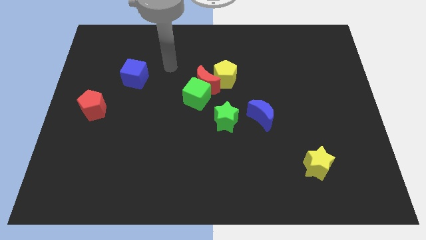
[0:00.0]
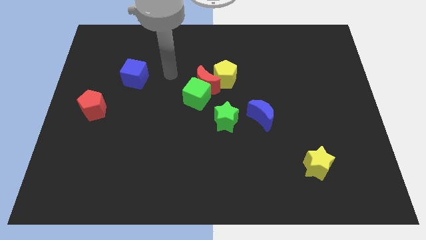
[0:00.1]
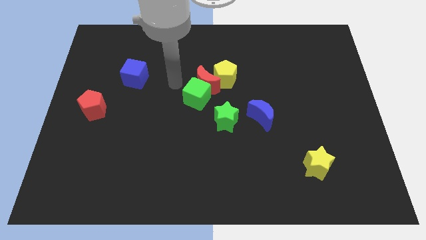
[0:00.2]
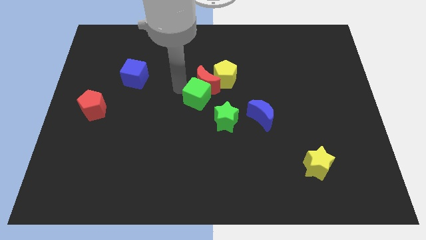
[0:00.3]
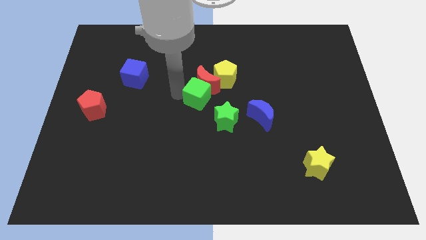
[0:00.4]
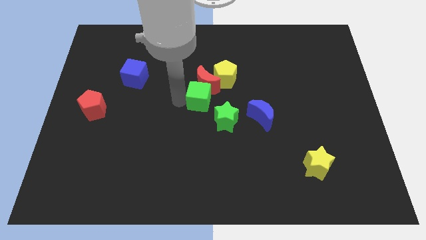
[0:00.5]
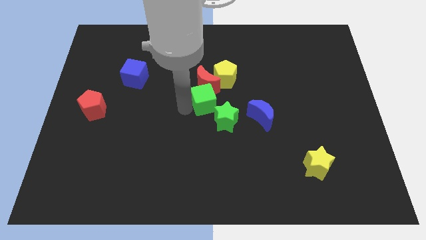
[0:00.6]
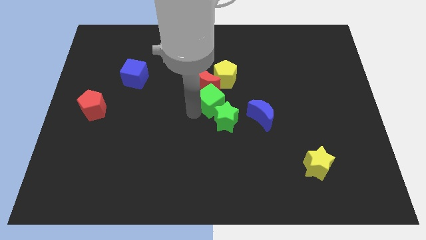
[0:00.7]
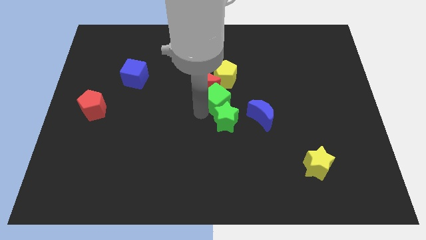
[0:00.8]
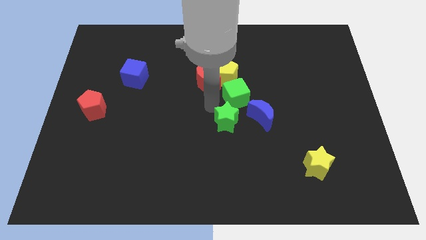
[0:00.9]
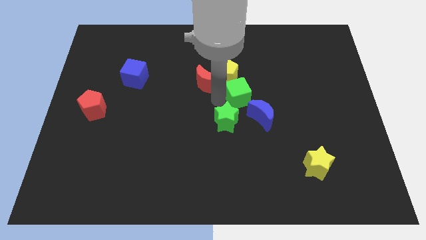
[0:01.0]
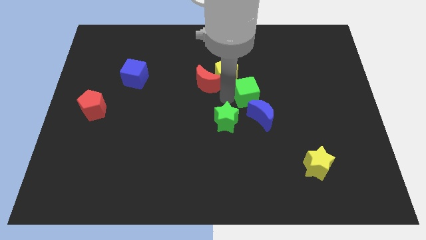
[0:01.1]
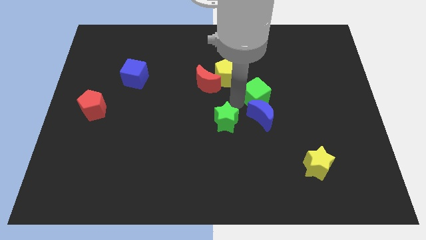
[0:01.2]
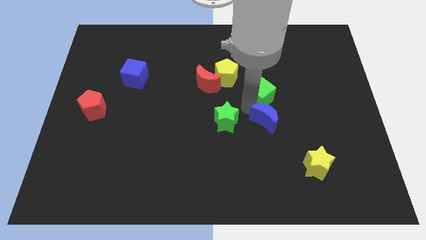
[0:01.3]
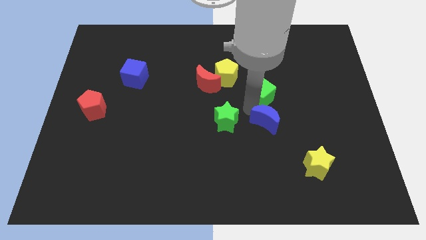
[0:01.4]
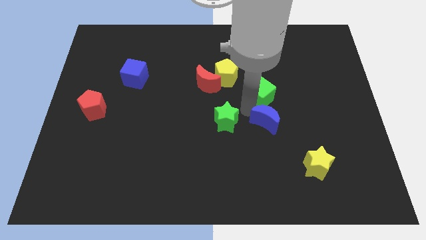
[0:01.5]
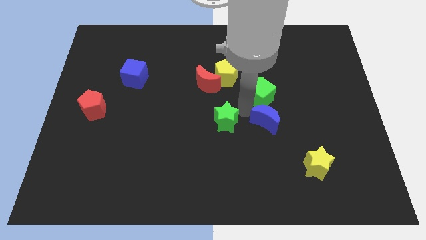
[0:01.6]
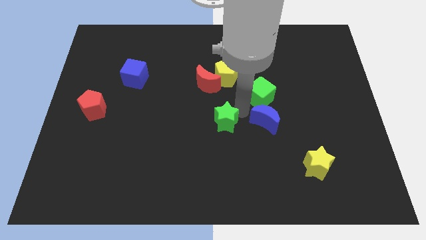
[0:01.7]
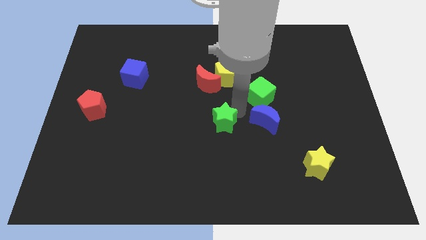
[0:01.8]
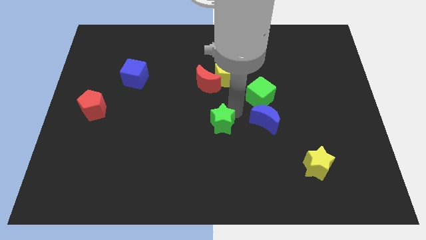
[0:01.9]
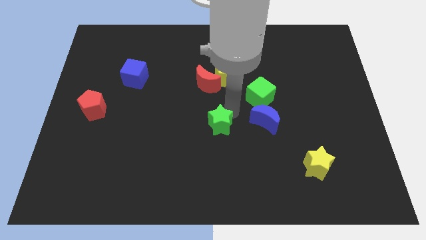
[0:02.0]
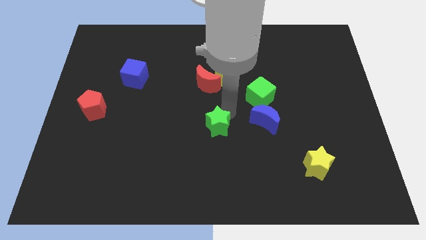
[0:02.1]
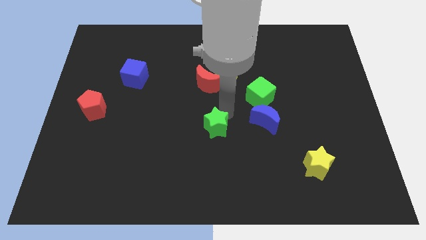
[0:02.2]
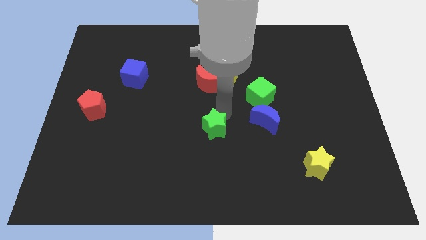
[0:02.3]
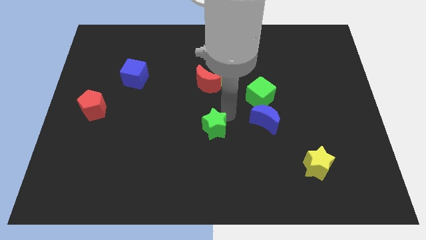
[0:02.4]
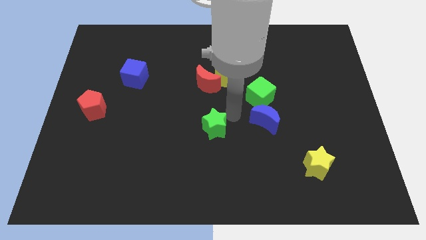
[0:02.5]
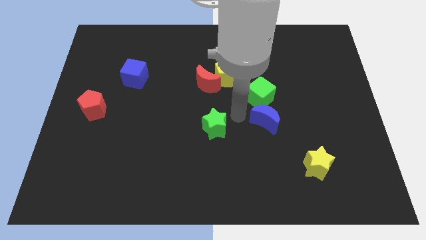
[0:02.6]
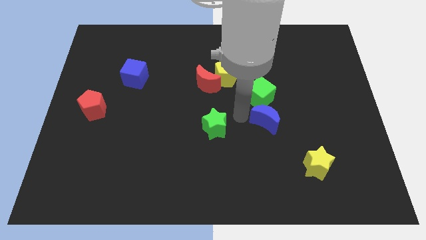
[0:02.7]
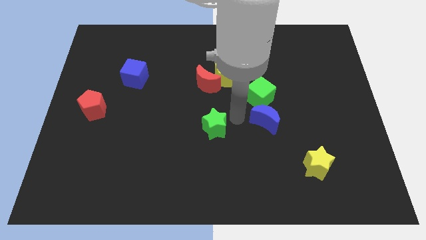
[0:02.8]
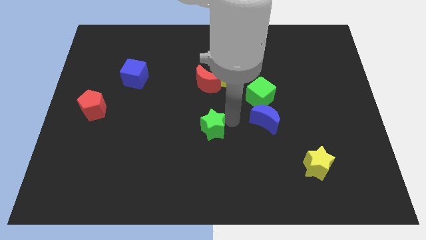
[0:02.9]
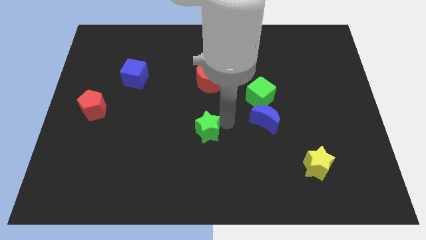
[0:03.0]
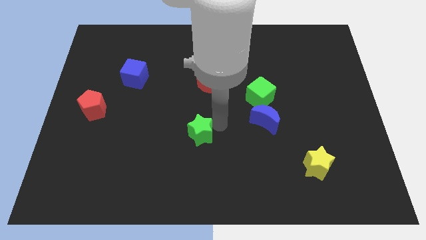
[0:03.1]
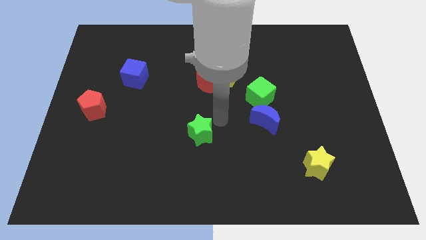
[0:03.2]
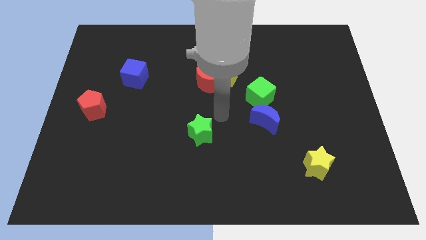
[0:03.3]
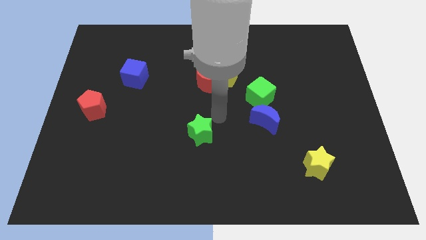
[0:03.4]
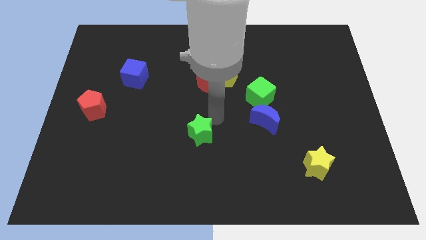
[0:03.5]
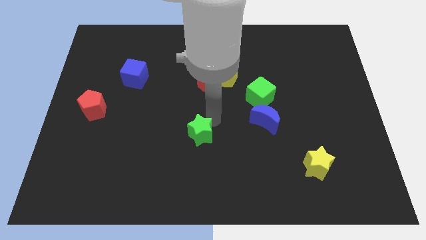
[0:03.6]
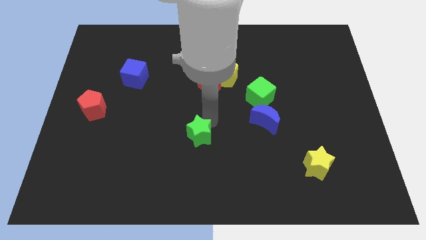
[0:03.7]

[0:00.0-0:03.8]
slightly slide the green star diagonally down and to the left

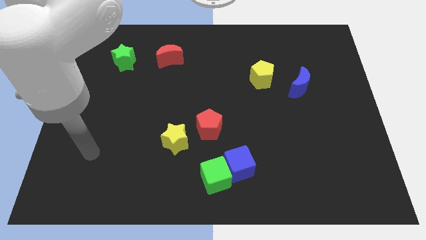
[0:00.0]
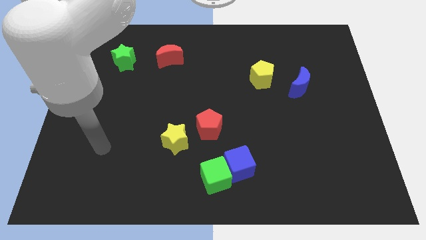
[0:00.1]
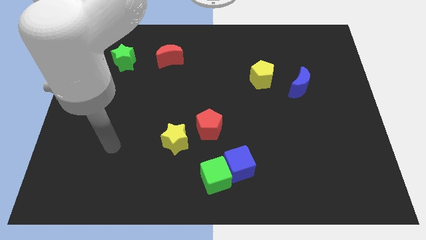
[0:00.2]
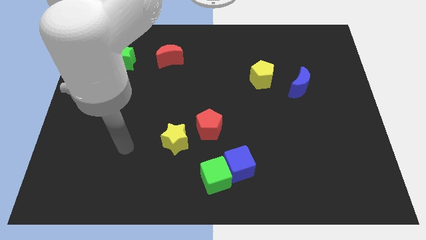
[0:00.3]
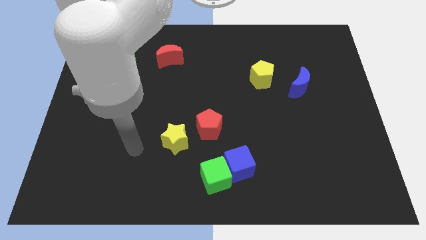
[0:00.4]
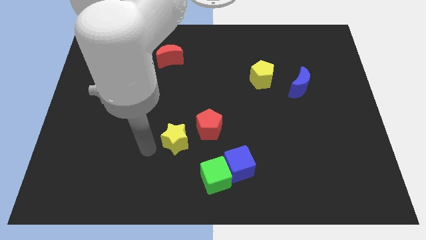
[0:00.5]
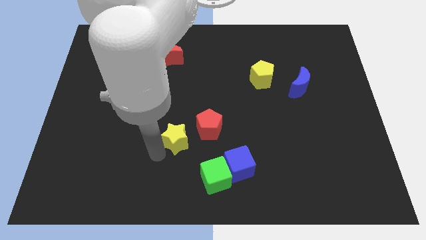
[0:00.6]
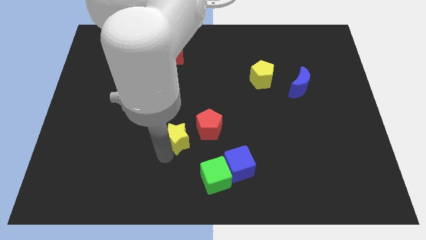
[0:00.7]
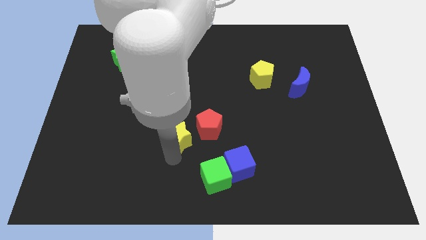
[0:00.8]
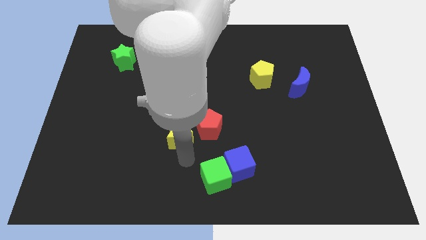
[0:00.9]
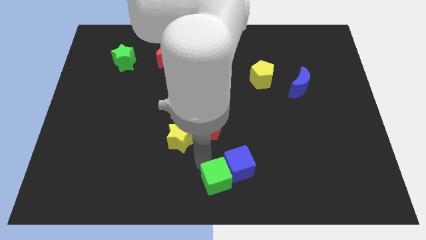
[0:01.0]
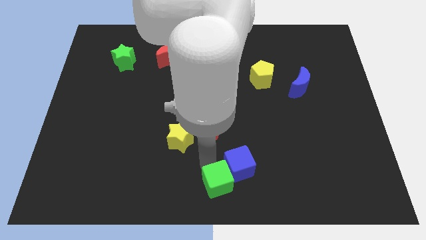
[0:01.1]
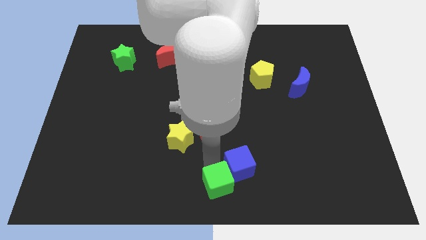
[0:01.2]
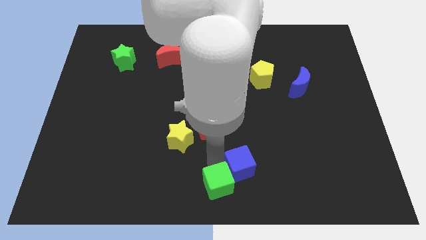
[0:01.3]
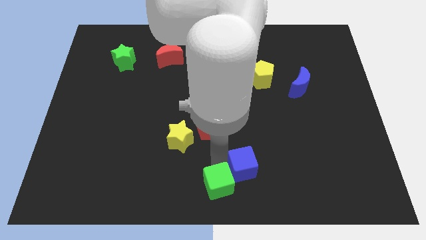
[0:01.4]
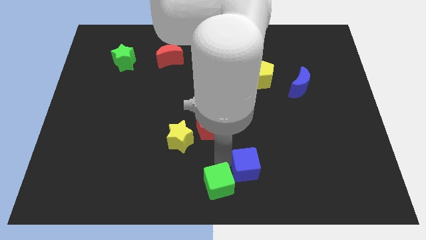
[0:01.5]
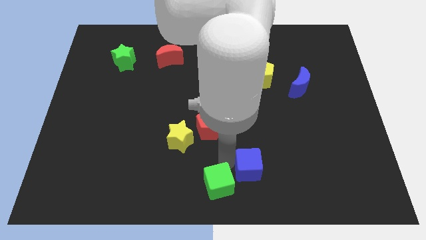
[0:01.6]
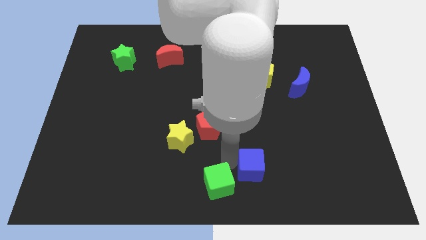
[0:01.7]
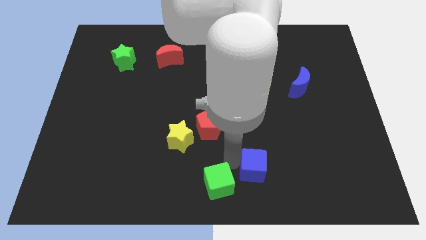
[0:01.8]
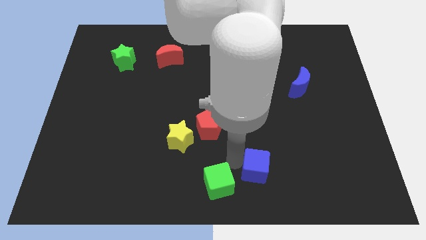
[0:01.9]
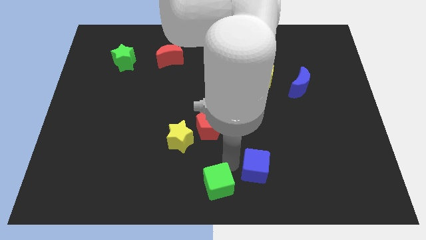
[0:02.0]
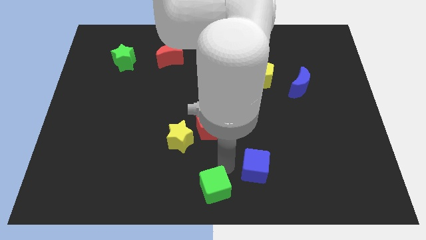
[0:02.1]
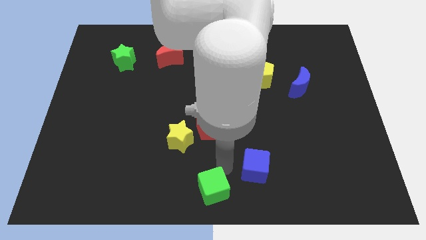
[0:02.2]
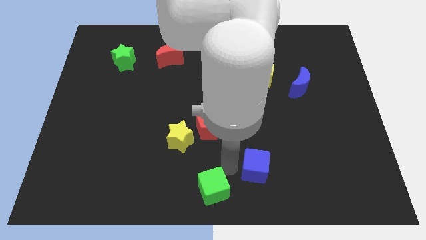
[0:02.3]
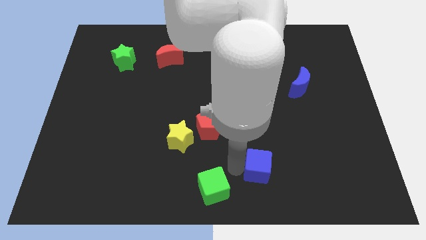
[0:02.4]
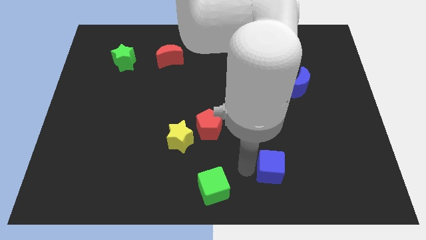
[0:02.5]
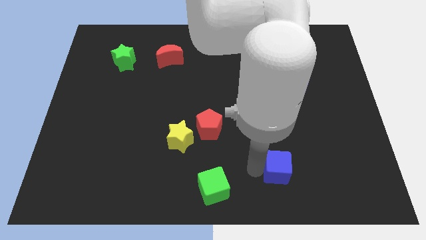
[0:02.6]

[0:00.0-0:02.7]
slide the blue cube right somewhat

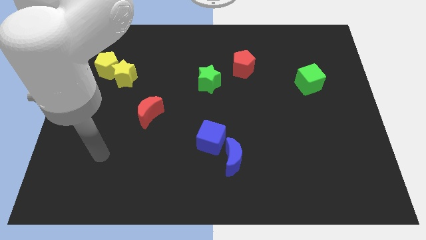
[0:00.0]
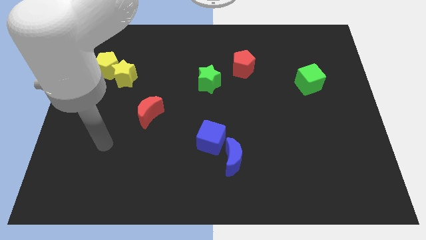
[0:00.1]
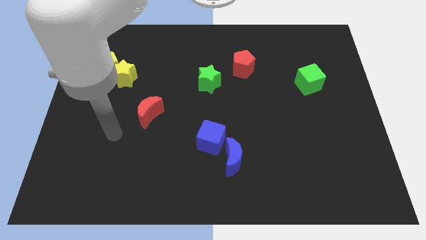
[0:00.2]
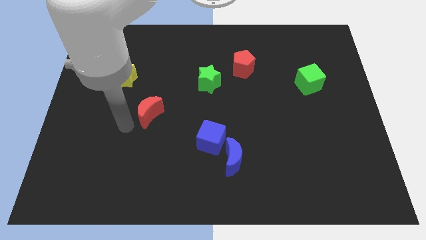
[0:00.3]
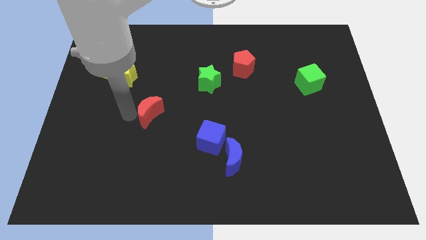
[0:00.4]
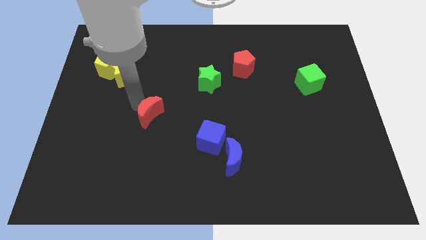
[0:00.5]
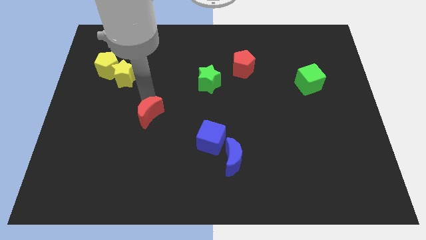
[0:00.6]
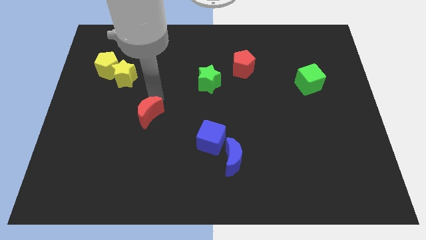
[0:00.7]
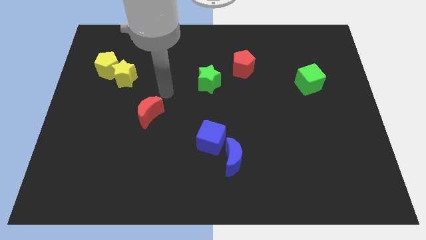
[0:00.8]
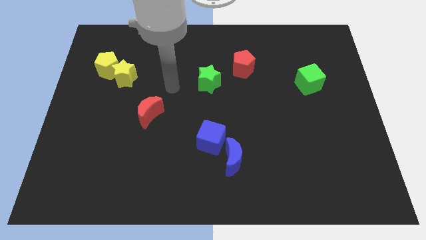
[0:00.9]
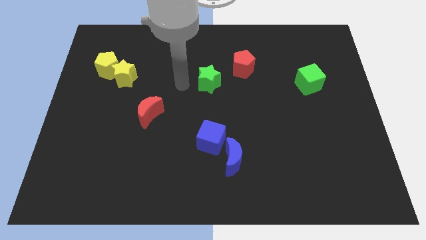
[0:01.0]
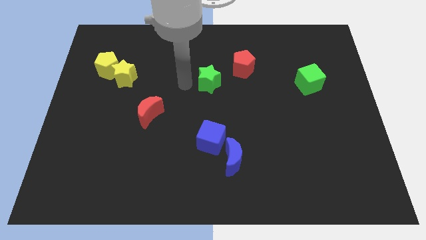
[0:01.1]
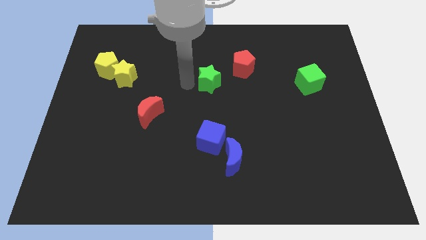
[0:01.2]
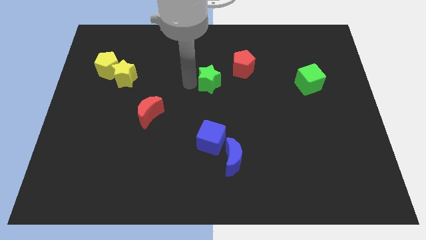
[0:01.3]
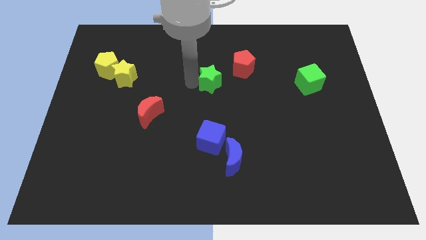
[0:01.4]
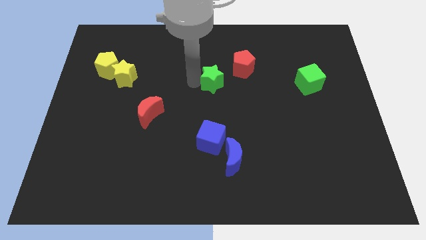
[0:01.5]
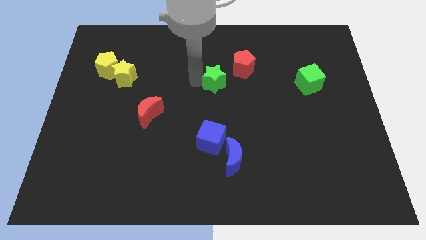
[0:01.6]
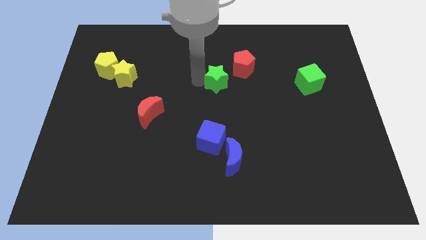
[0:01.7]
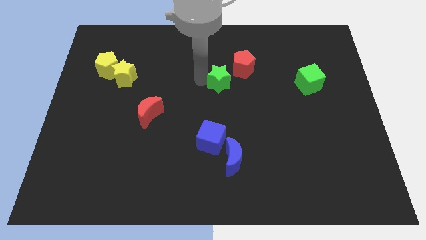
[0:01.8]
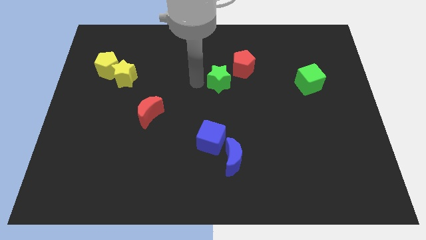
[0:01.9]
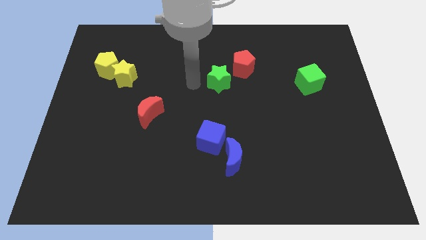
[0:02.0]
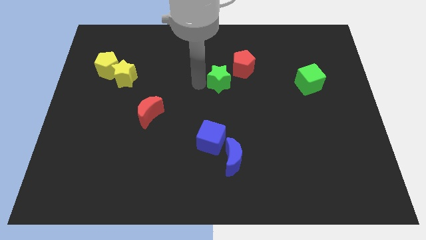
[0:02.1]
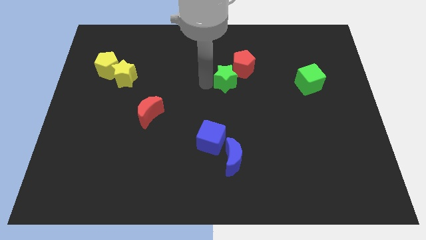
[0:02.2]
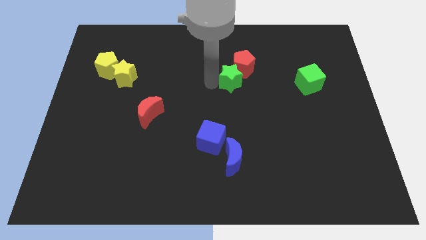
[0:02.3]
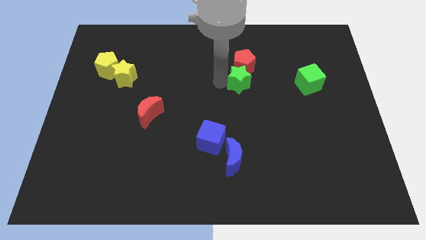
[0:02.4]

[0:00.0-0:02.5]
push the green star somewhat to the right
